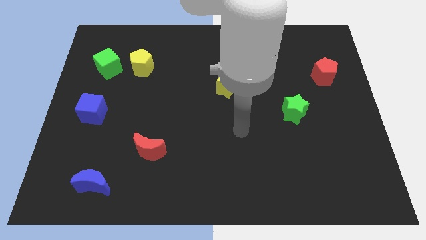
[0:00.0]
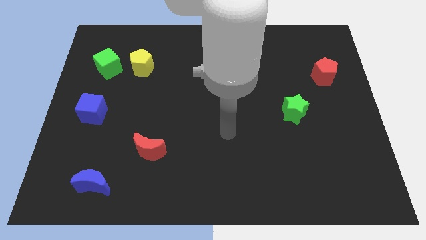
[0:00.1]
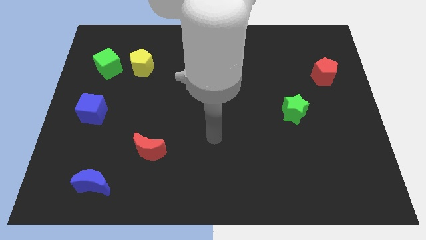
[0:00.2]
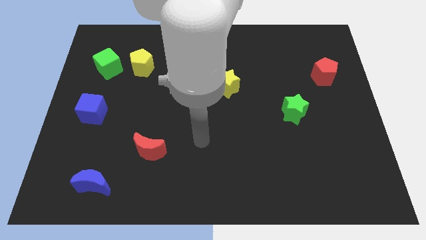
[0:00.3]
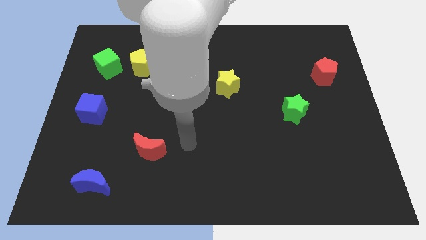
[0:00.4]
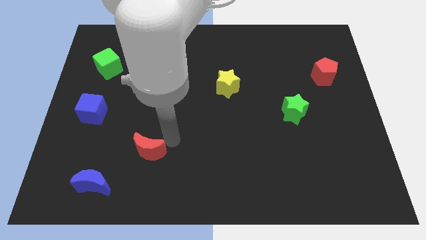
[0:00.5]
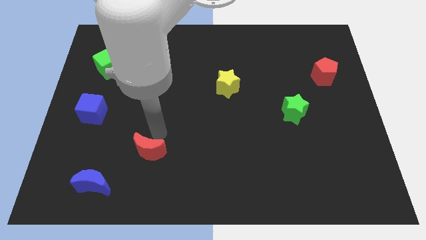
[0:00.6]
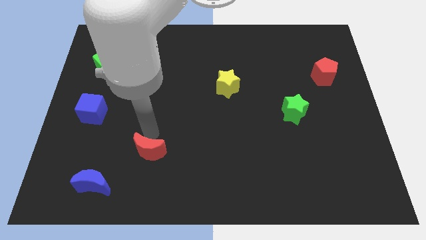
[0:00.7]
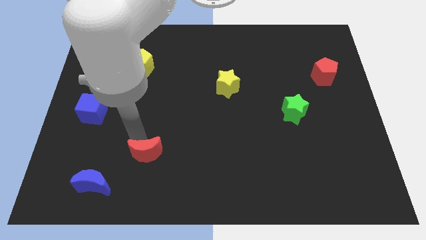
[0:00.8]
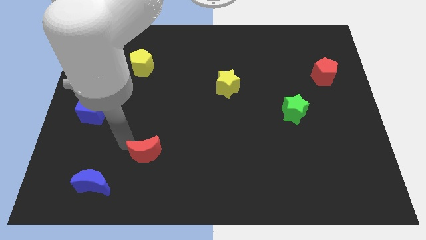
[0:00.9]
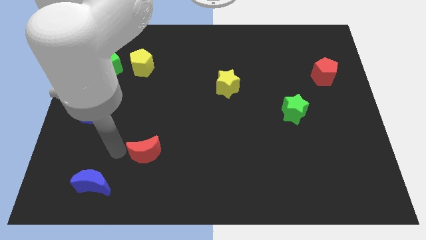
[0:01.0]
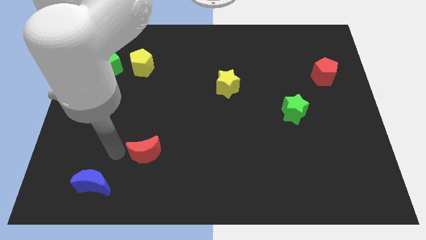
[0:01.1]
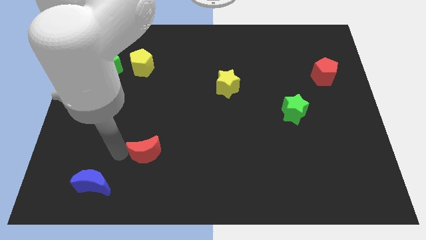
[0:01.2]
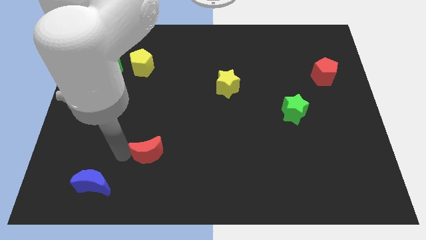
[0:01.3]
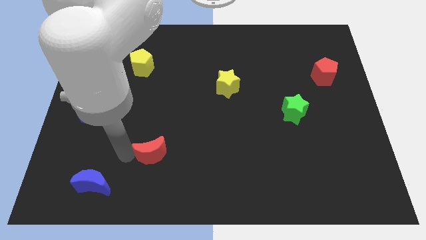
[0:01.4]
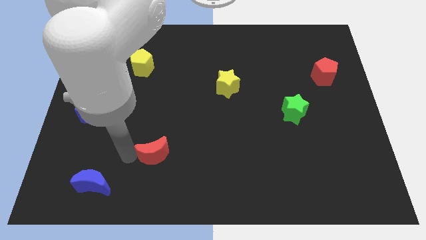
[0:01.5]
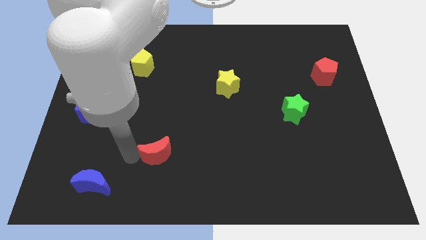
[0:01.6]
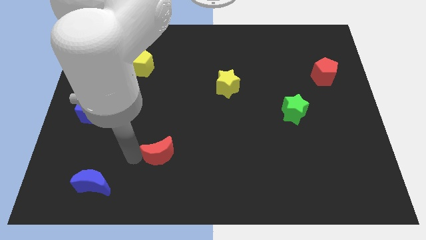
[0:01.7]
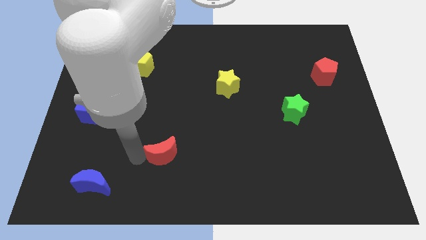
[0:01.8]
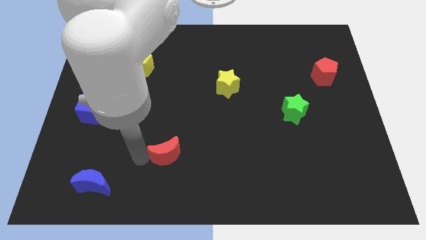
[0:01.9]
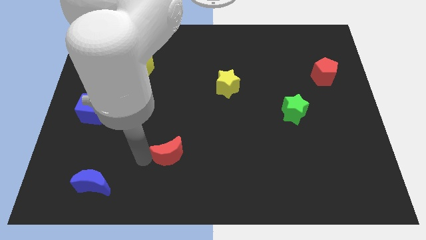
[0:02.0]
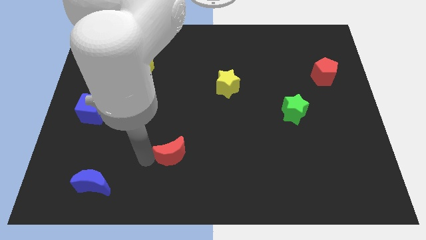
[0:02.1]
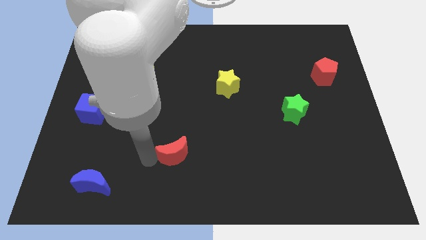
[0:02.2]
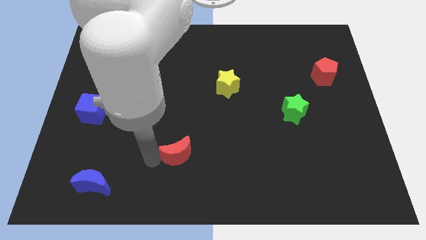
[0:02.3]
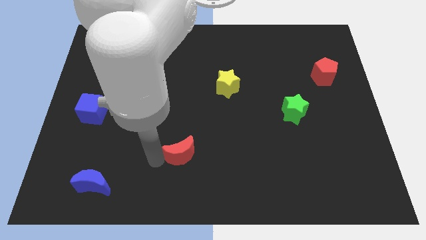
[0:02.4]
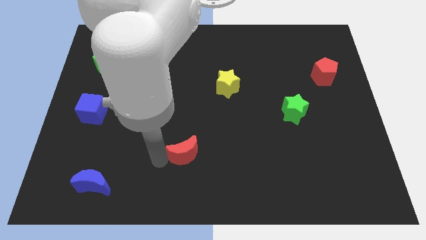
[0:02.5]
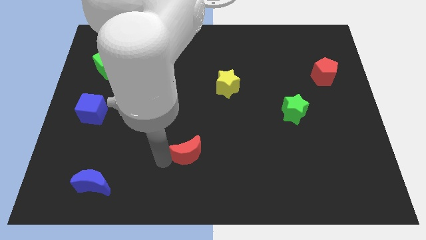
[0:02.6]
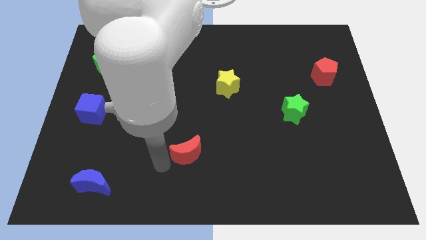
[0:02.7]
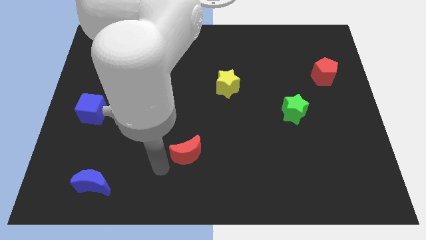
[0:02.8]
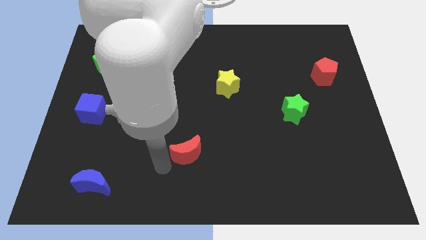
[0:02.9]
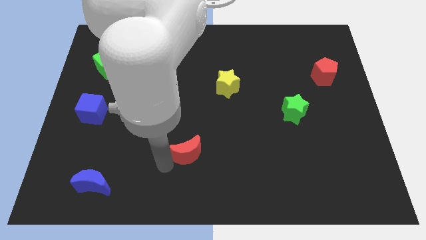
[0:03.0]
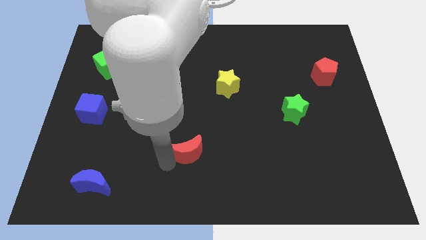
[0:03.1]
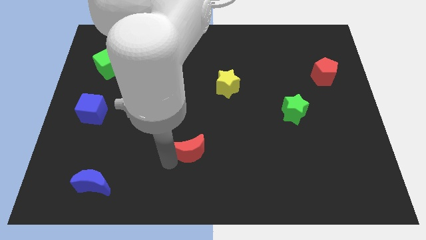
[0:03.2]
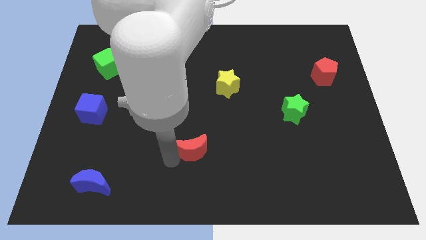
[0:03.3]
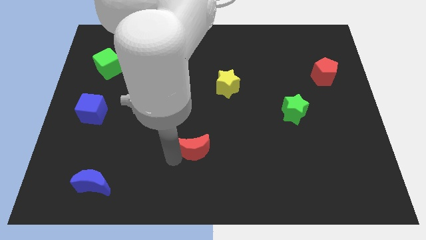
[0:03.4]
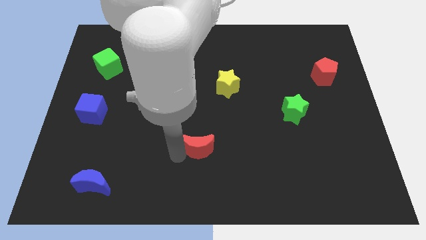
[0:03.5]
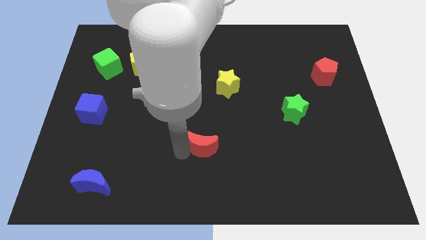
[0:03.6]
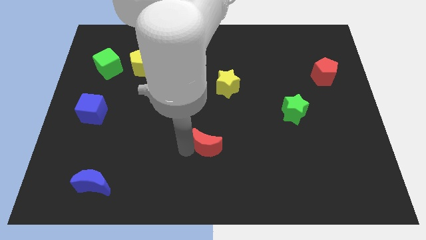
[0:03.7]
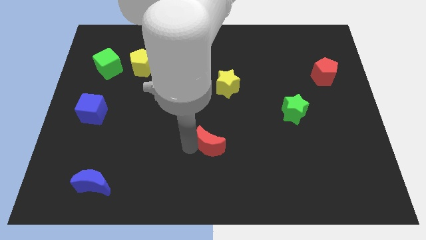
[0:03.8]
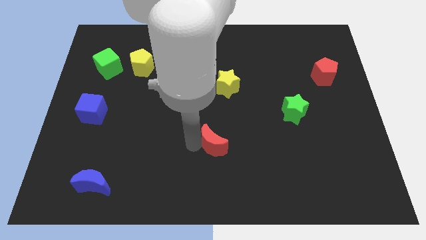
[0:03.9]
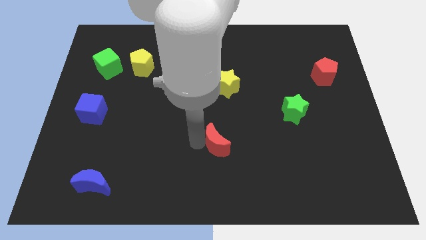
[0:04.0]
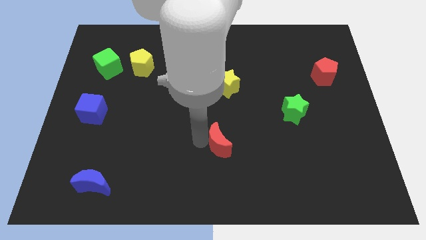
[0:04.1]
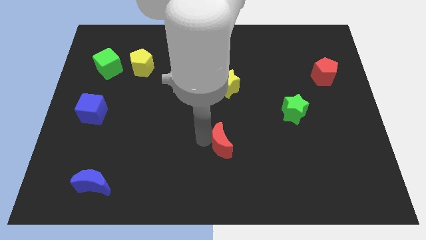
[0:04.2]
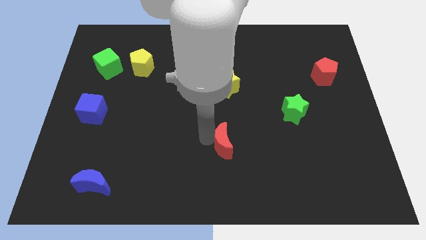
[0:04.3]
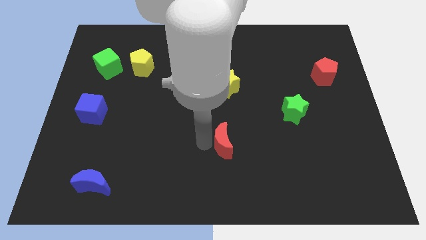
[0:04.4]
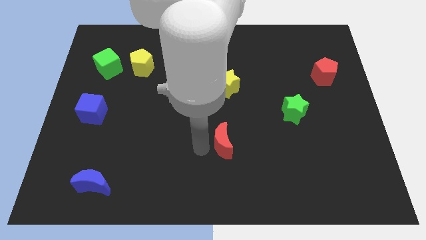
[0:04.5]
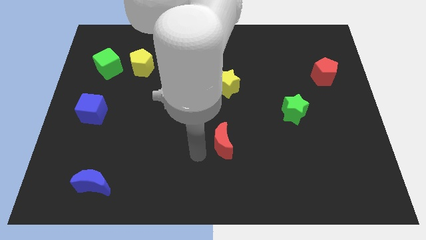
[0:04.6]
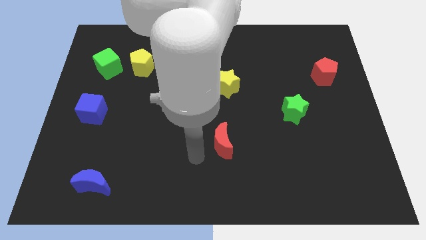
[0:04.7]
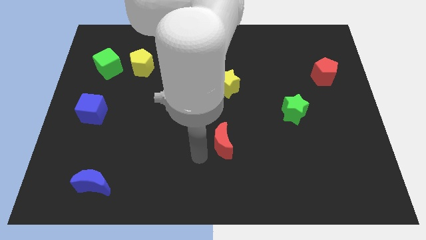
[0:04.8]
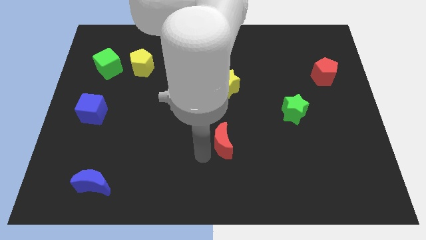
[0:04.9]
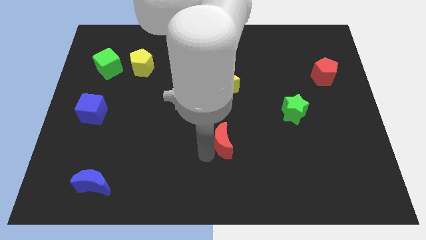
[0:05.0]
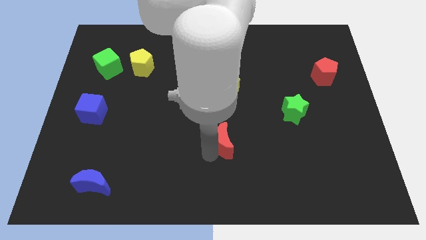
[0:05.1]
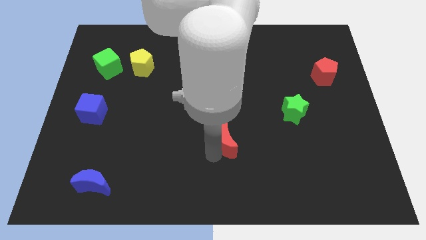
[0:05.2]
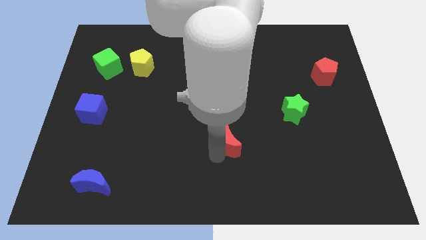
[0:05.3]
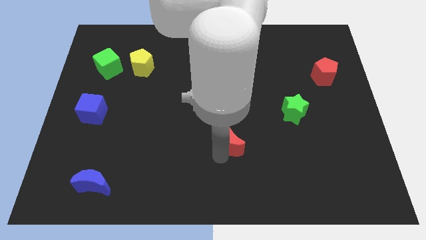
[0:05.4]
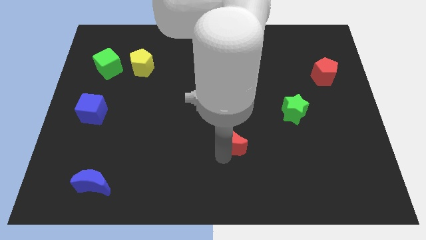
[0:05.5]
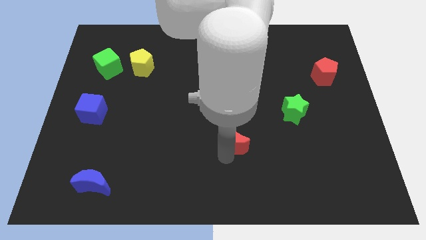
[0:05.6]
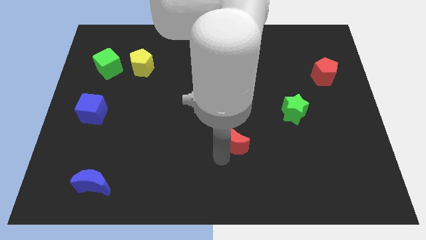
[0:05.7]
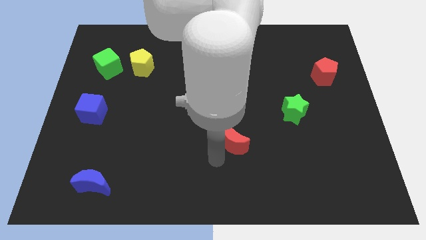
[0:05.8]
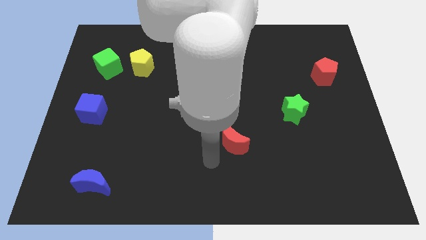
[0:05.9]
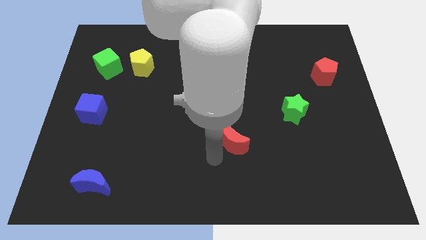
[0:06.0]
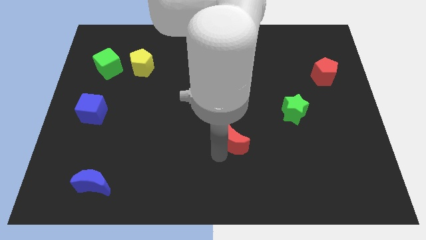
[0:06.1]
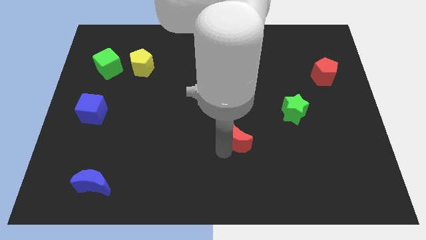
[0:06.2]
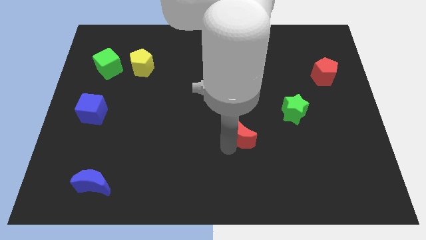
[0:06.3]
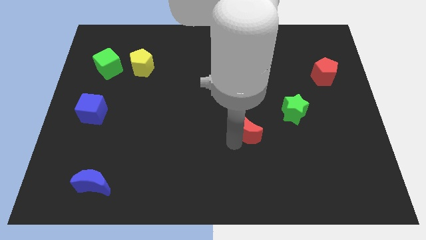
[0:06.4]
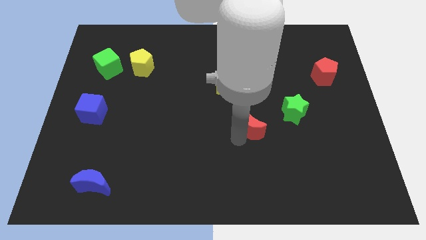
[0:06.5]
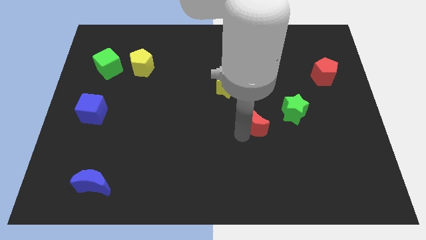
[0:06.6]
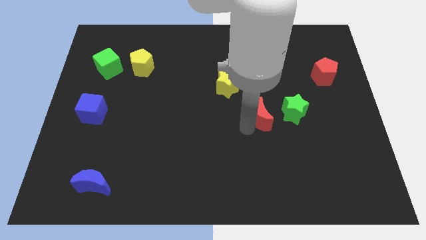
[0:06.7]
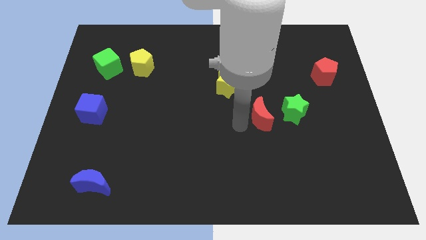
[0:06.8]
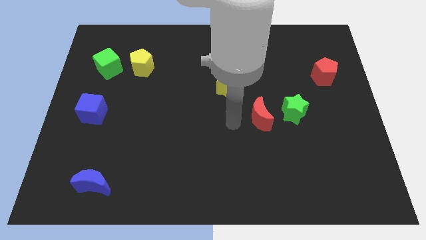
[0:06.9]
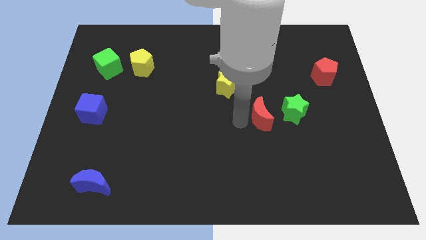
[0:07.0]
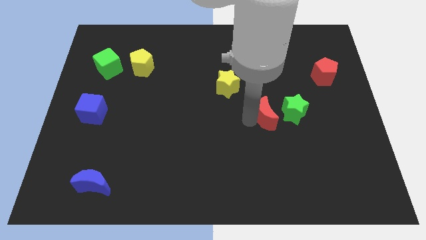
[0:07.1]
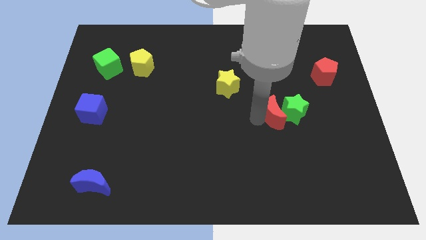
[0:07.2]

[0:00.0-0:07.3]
push the red moon towards the green star
